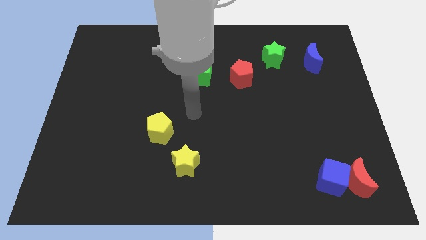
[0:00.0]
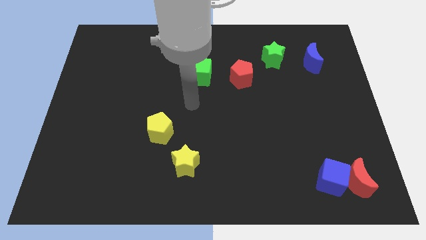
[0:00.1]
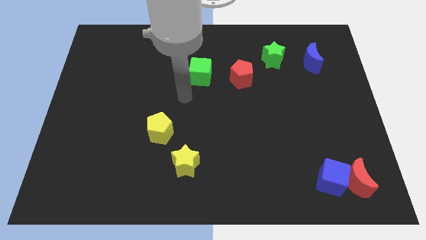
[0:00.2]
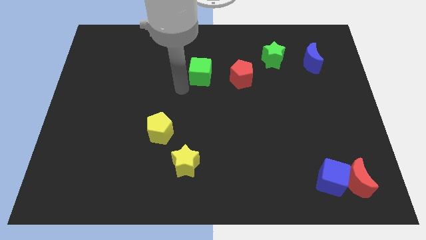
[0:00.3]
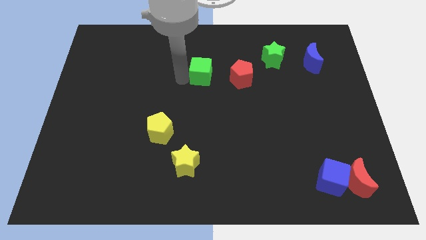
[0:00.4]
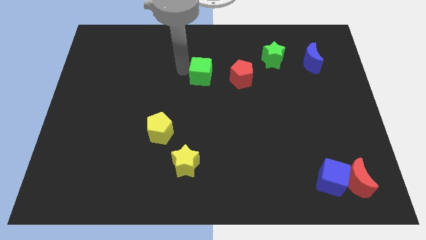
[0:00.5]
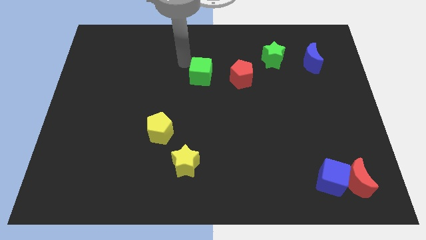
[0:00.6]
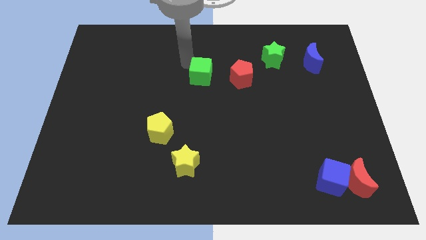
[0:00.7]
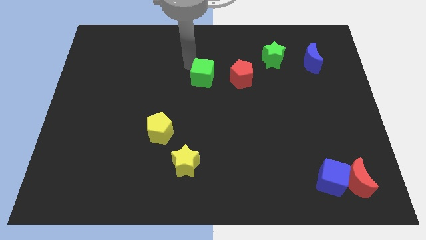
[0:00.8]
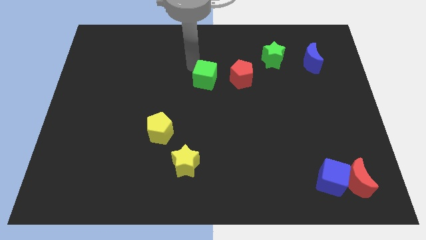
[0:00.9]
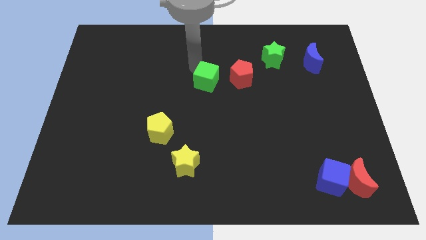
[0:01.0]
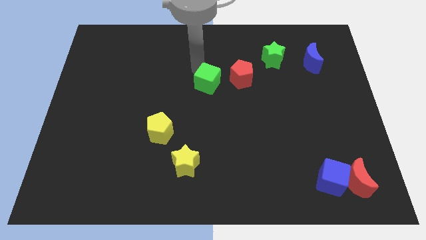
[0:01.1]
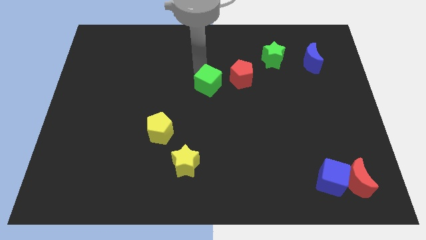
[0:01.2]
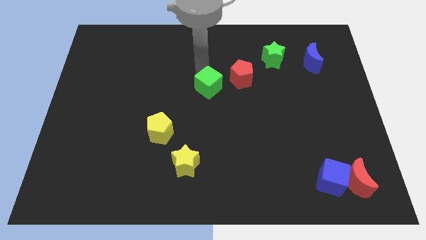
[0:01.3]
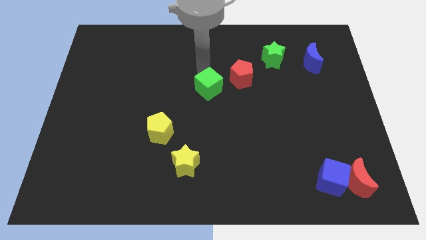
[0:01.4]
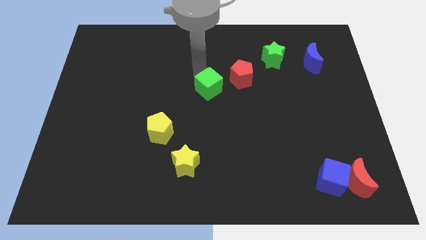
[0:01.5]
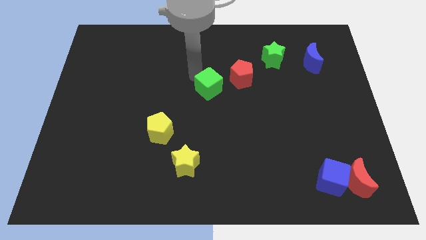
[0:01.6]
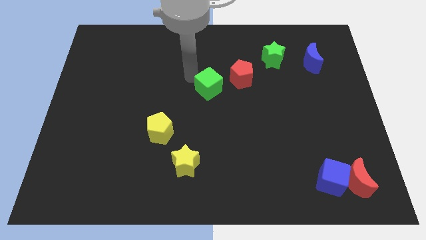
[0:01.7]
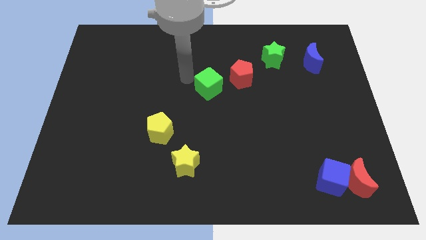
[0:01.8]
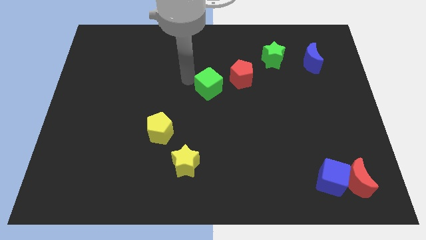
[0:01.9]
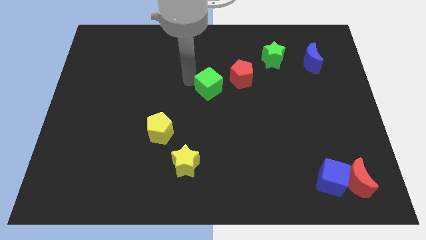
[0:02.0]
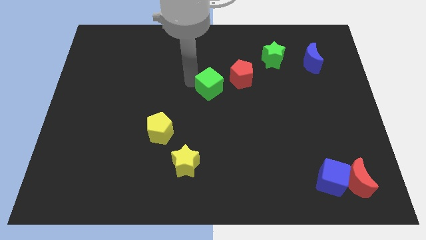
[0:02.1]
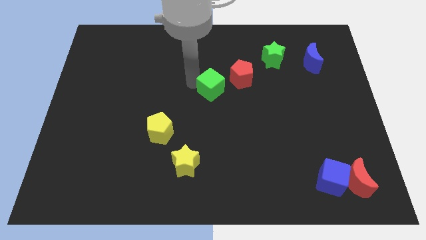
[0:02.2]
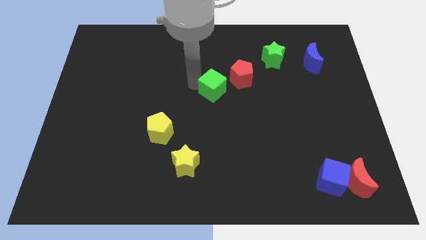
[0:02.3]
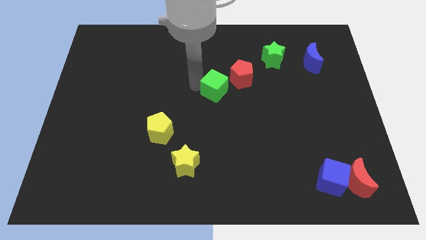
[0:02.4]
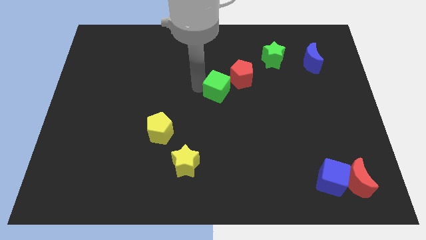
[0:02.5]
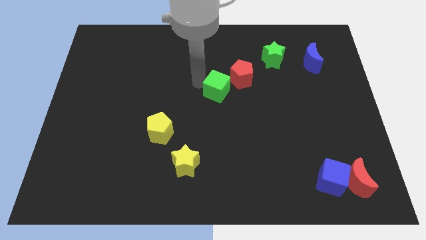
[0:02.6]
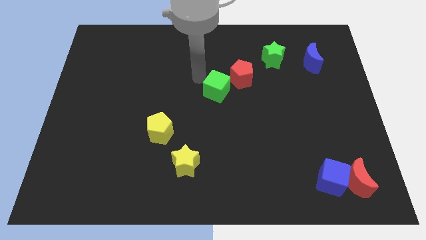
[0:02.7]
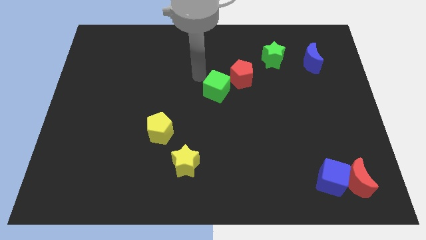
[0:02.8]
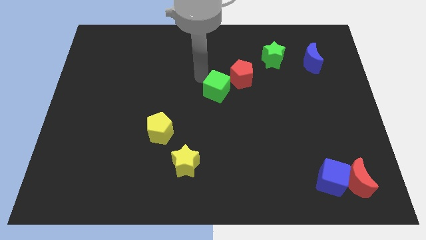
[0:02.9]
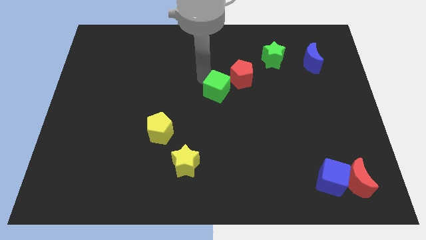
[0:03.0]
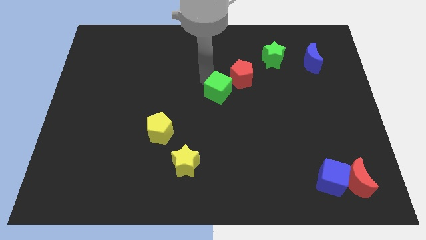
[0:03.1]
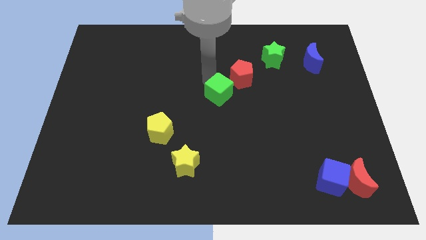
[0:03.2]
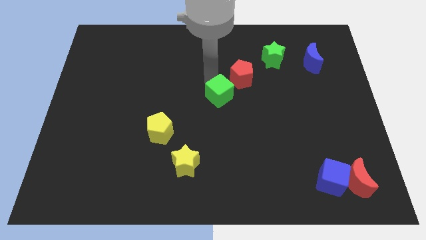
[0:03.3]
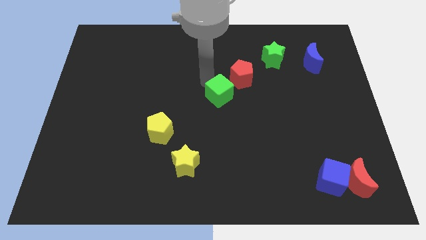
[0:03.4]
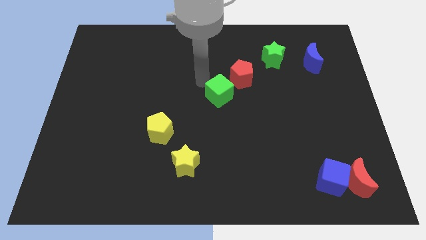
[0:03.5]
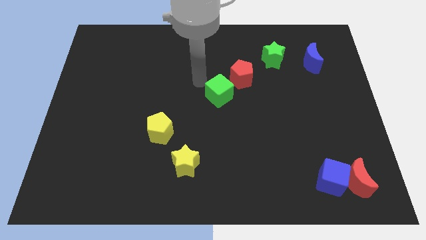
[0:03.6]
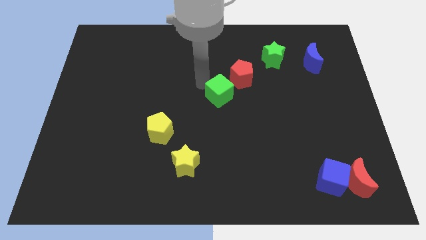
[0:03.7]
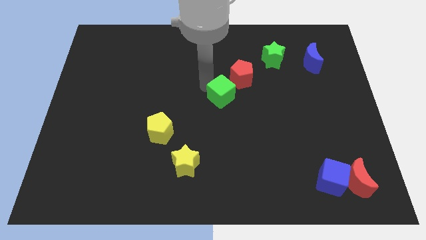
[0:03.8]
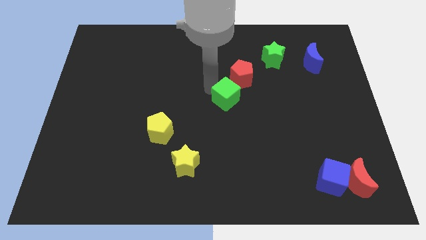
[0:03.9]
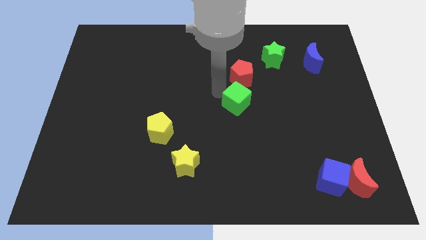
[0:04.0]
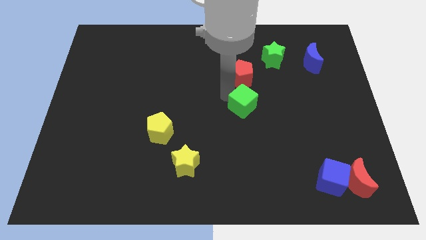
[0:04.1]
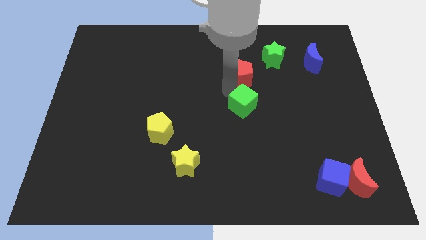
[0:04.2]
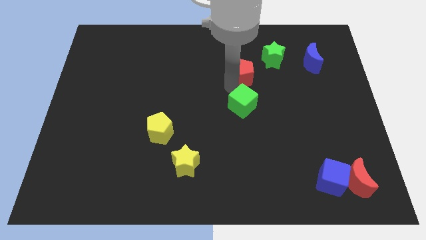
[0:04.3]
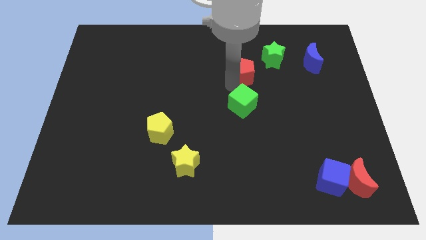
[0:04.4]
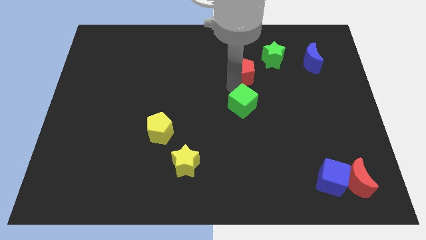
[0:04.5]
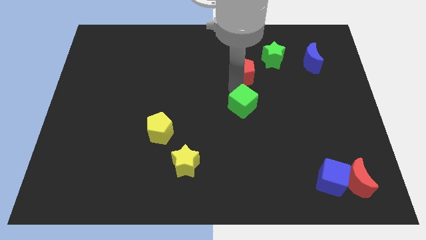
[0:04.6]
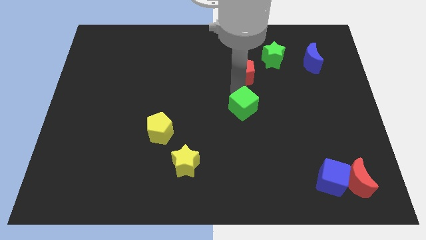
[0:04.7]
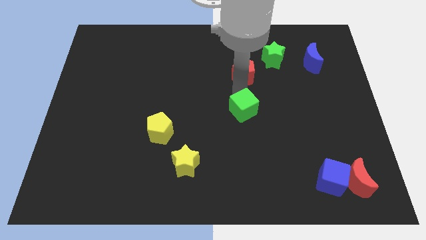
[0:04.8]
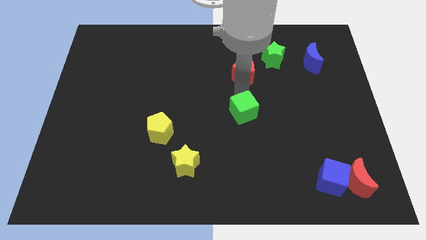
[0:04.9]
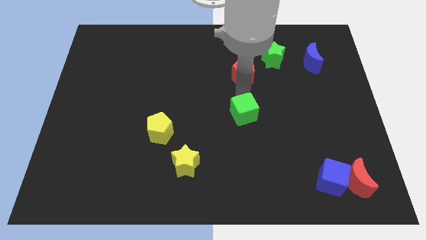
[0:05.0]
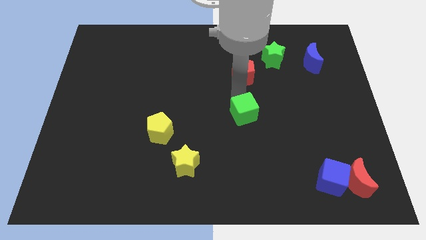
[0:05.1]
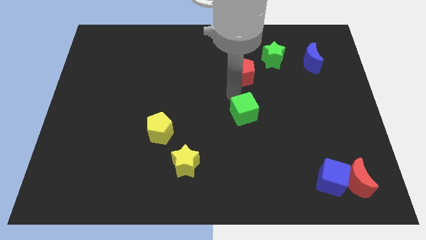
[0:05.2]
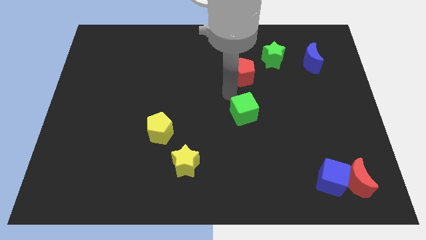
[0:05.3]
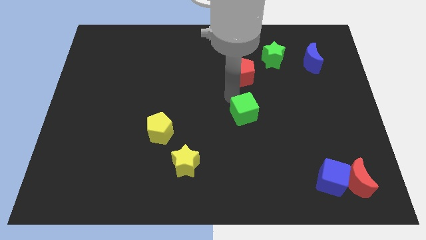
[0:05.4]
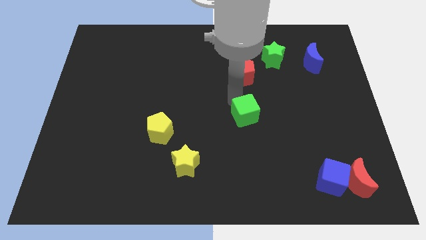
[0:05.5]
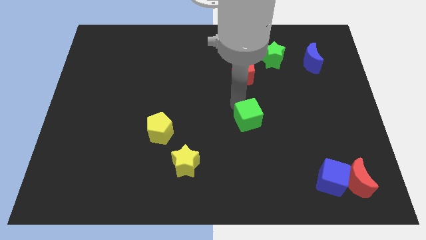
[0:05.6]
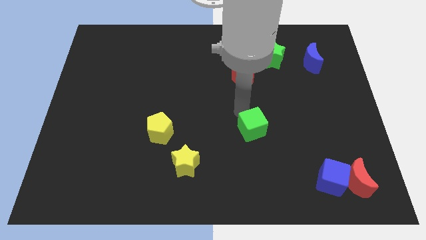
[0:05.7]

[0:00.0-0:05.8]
slide the green cube downwards and right diagonally

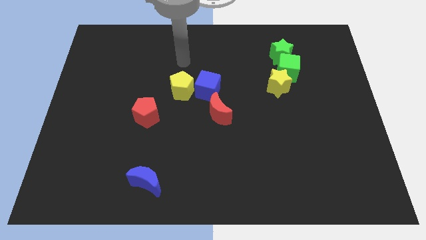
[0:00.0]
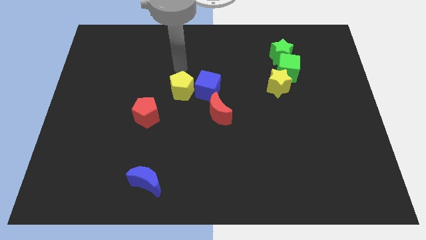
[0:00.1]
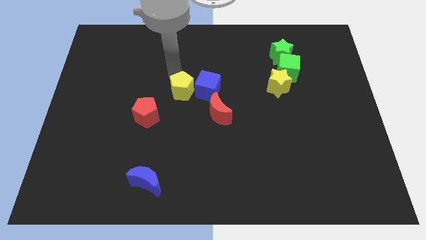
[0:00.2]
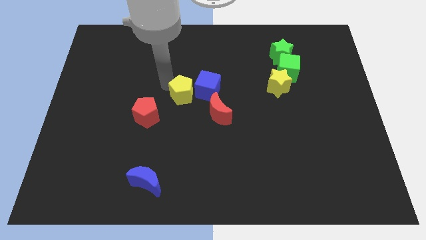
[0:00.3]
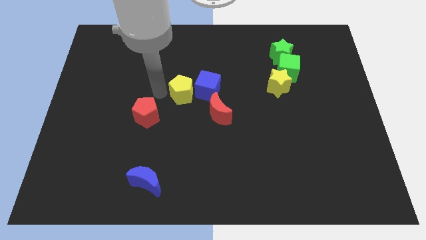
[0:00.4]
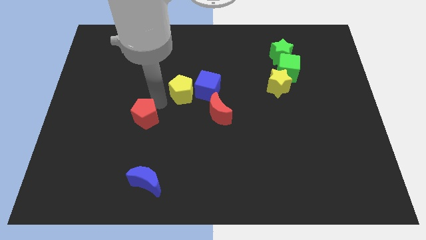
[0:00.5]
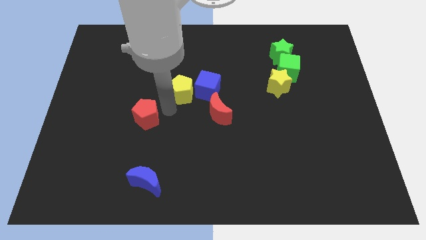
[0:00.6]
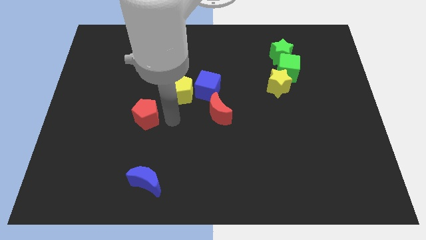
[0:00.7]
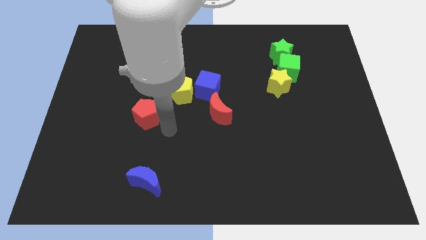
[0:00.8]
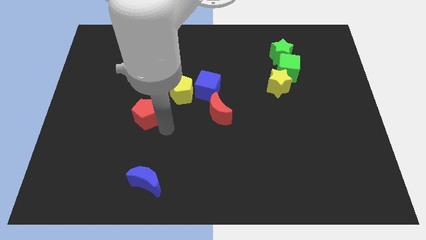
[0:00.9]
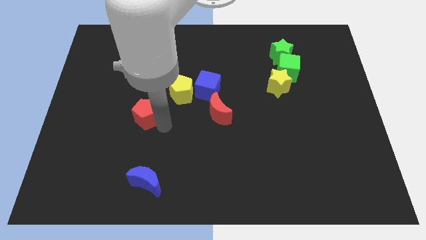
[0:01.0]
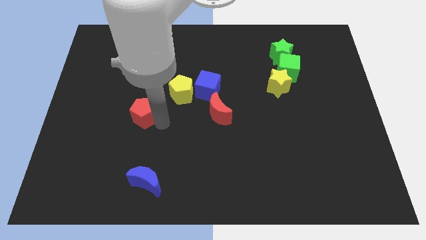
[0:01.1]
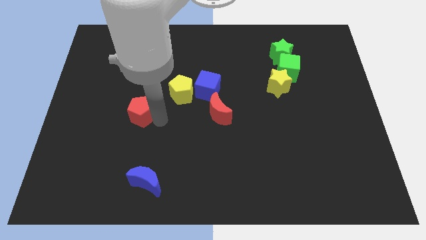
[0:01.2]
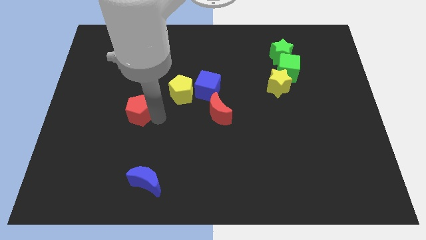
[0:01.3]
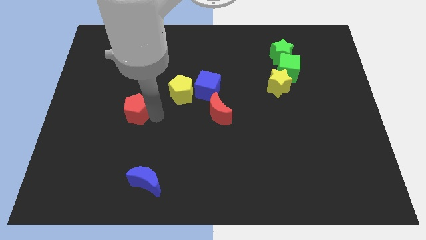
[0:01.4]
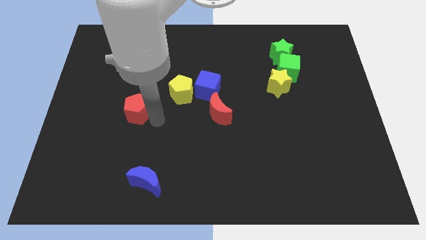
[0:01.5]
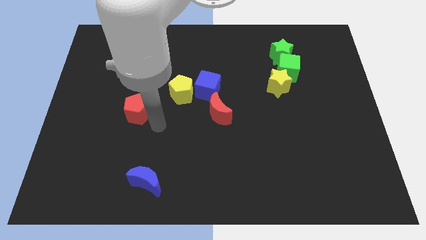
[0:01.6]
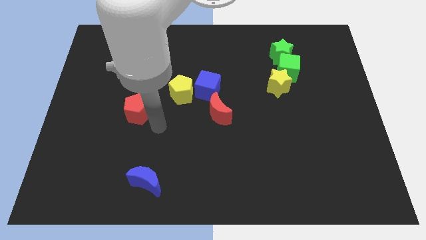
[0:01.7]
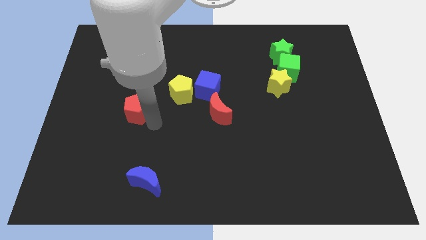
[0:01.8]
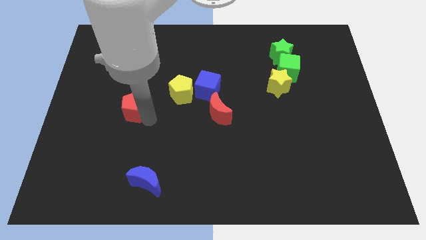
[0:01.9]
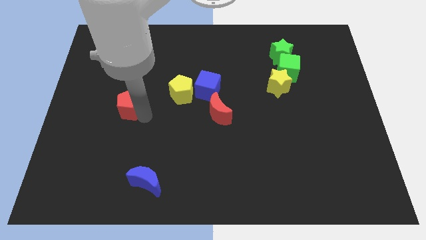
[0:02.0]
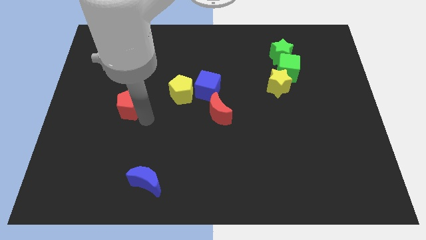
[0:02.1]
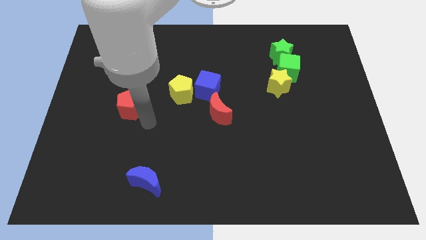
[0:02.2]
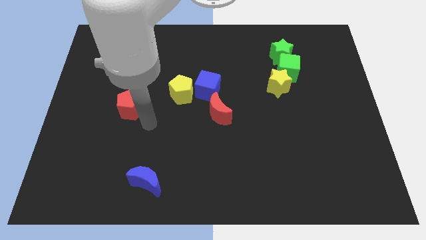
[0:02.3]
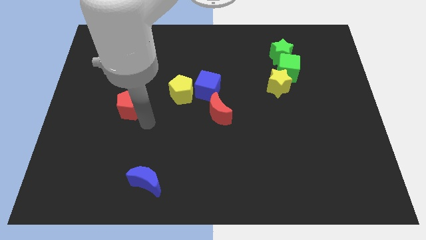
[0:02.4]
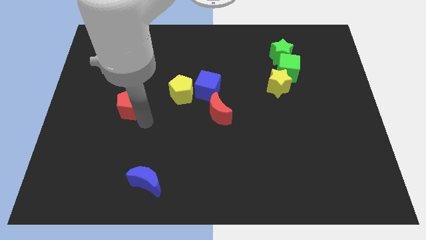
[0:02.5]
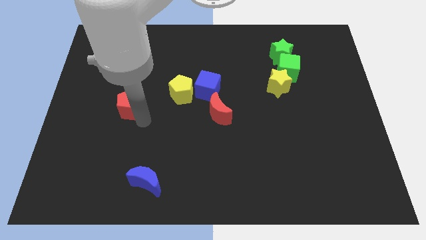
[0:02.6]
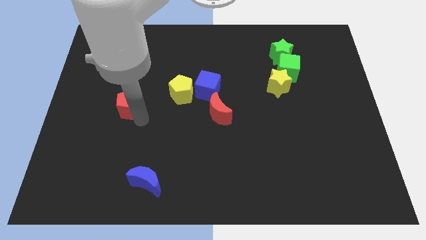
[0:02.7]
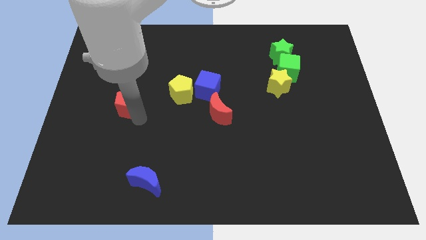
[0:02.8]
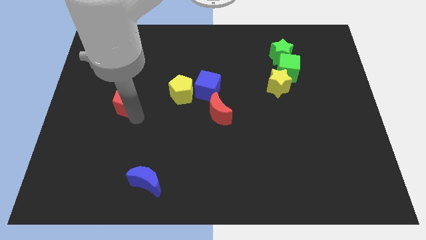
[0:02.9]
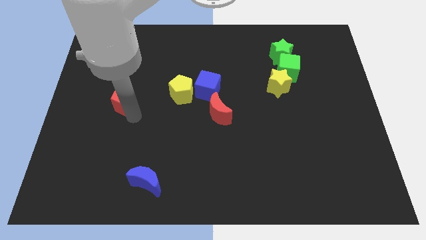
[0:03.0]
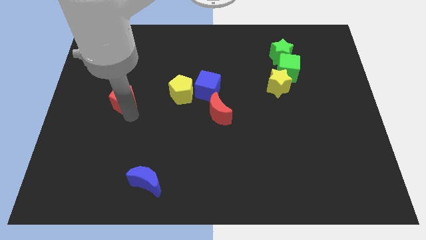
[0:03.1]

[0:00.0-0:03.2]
slightly slide the red pentagon up and to the left
